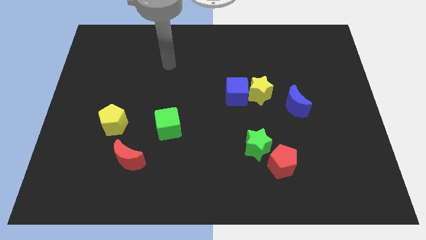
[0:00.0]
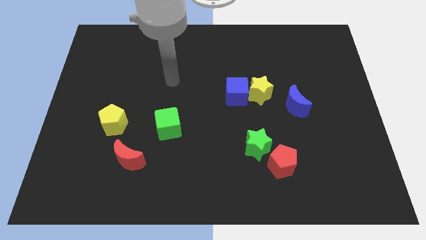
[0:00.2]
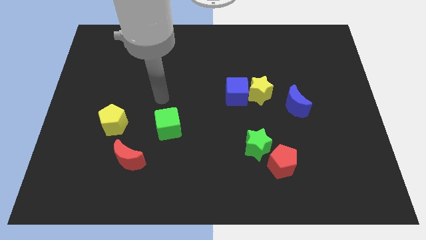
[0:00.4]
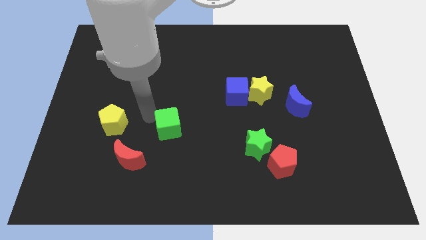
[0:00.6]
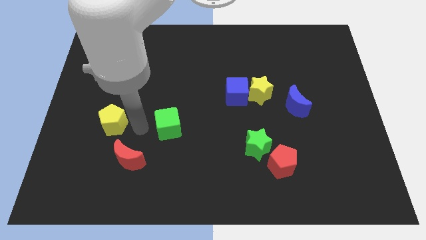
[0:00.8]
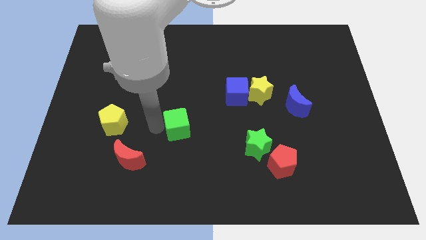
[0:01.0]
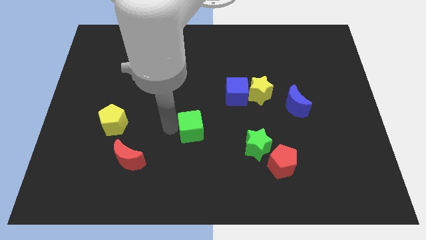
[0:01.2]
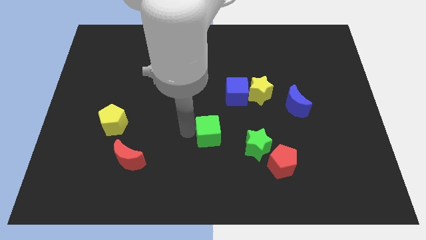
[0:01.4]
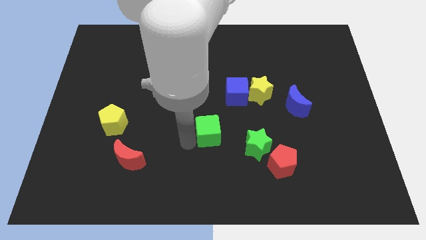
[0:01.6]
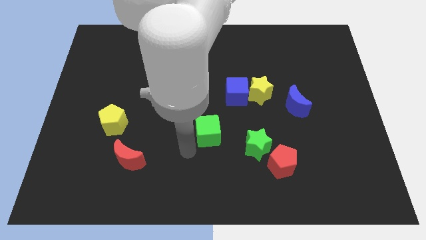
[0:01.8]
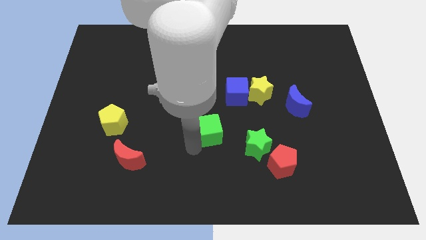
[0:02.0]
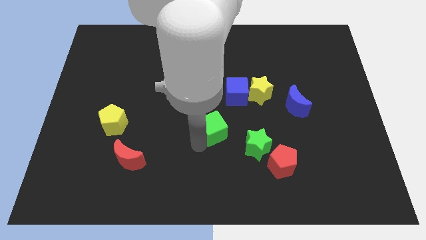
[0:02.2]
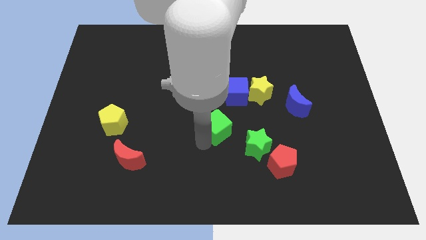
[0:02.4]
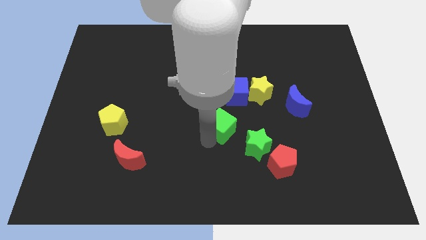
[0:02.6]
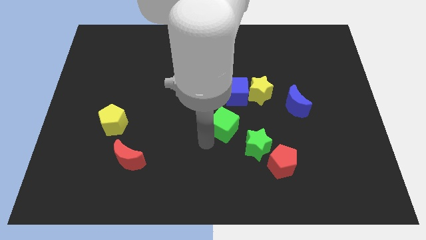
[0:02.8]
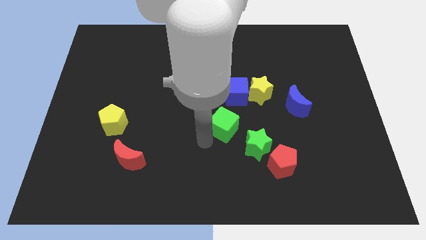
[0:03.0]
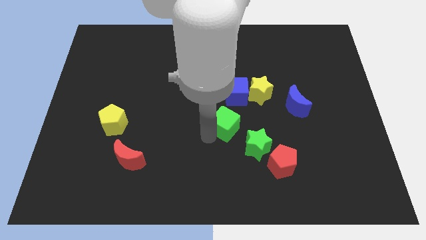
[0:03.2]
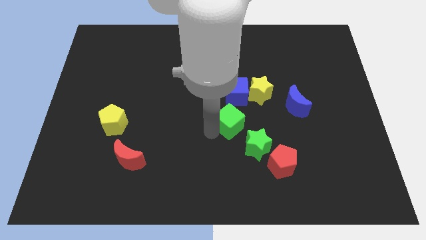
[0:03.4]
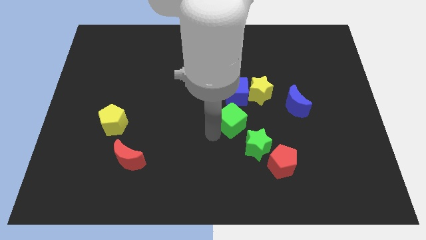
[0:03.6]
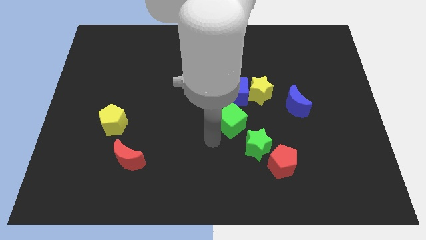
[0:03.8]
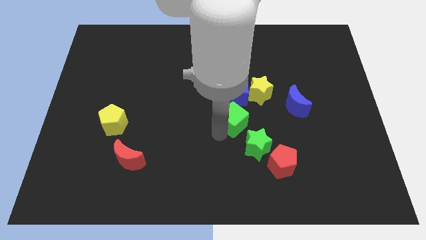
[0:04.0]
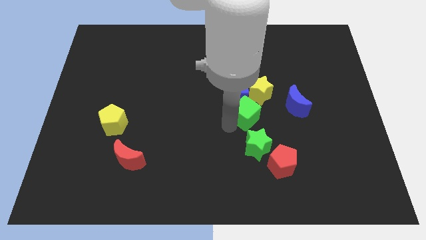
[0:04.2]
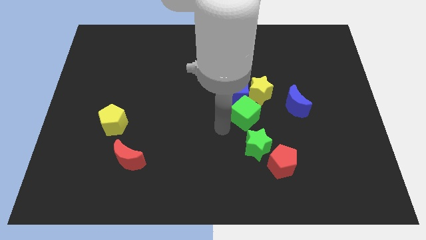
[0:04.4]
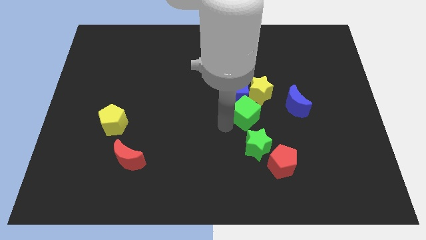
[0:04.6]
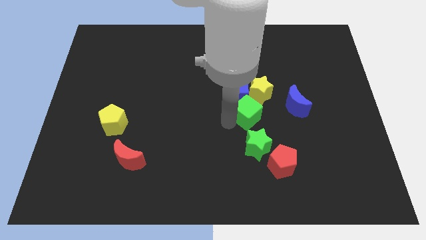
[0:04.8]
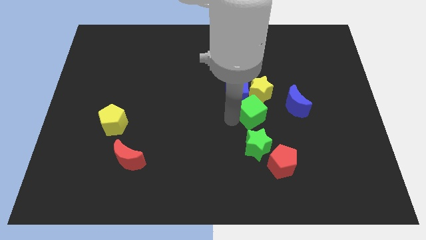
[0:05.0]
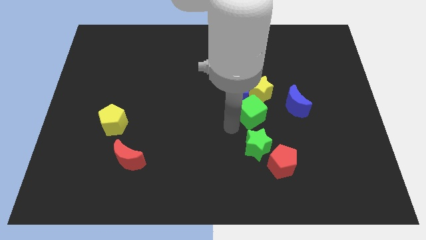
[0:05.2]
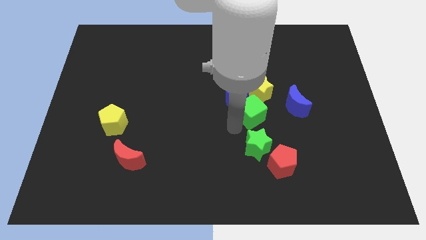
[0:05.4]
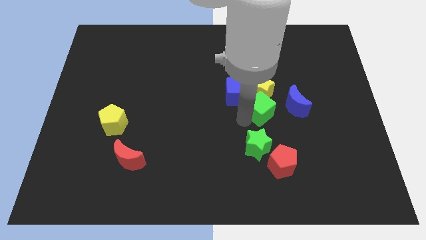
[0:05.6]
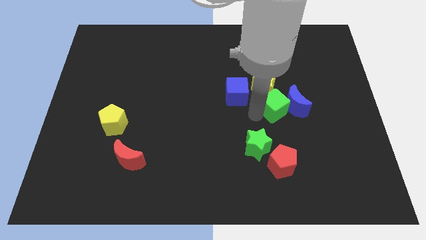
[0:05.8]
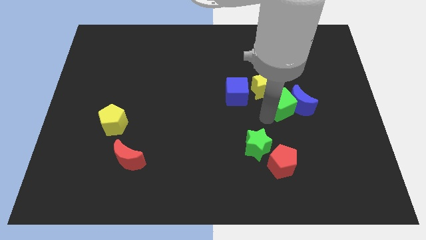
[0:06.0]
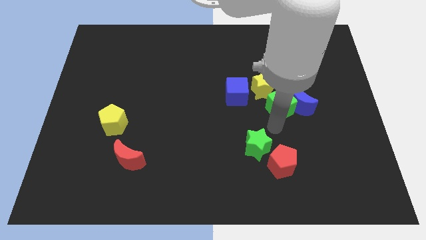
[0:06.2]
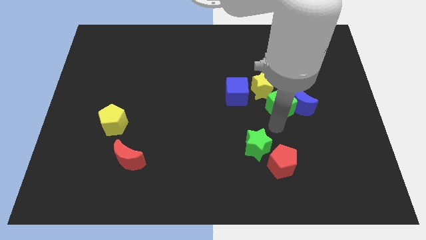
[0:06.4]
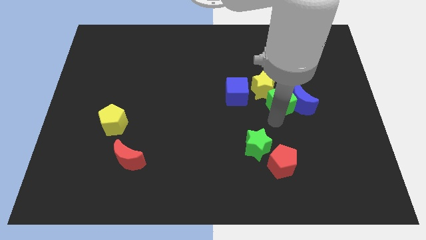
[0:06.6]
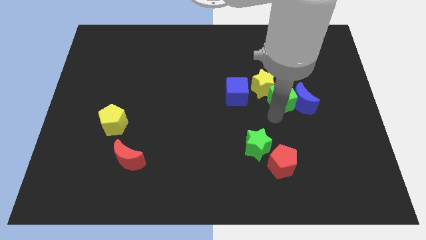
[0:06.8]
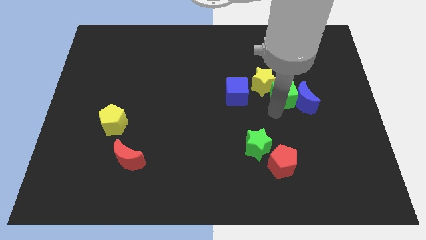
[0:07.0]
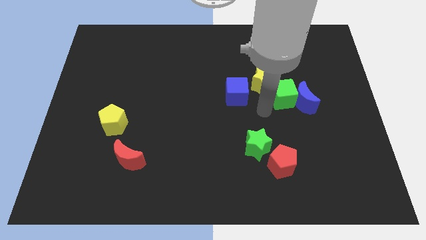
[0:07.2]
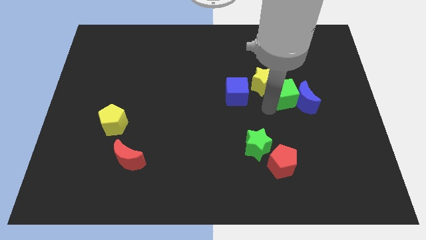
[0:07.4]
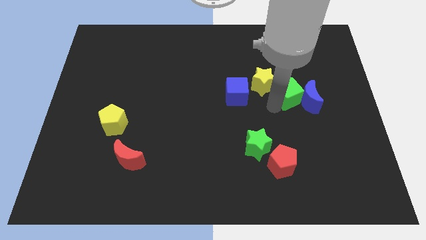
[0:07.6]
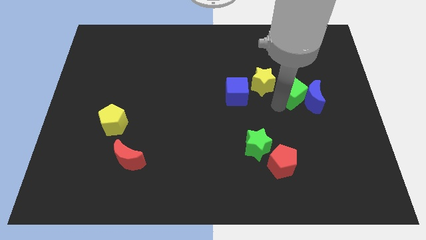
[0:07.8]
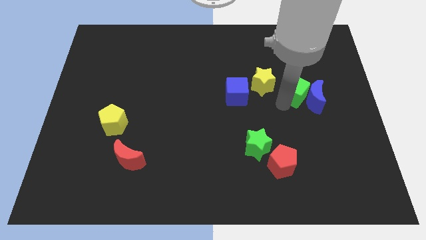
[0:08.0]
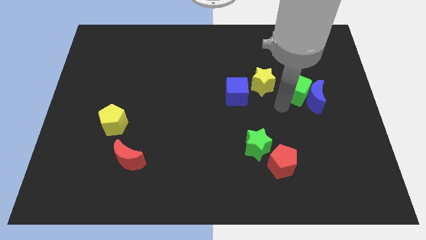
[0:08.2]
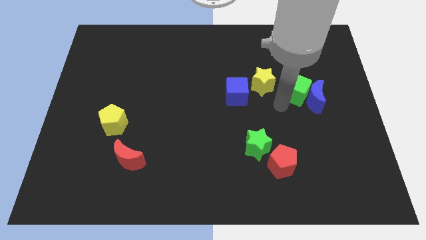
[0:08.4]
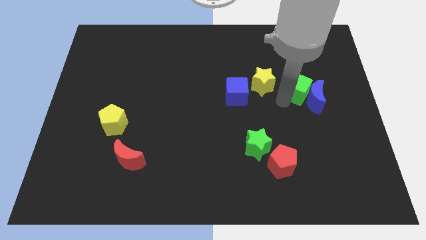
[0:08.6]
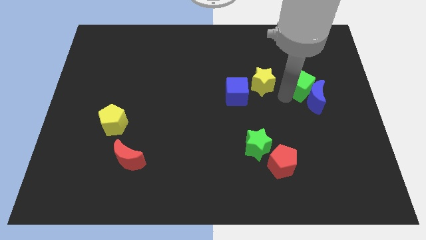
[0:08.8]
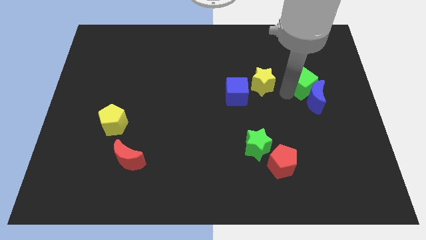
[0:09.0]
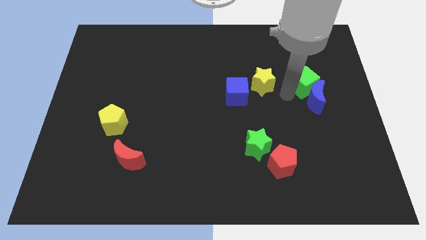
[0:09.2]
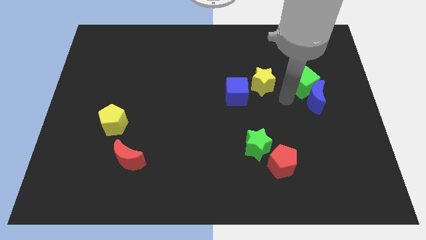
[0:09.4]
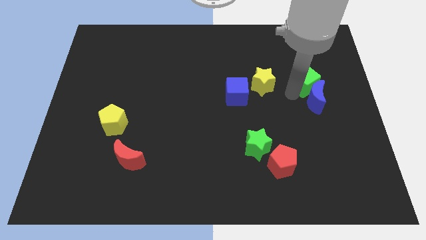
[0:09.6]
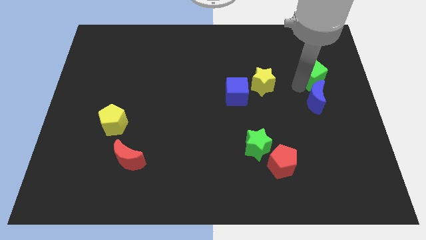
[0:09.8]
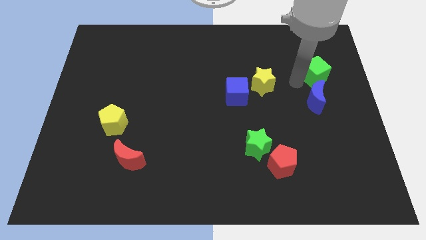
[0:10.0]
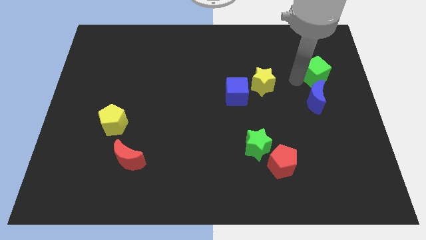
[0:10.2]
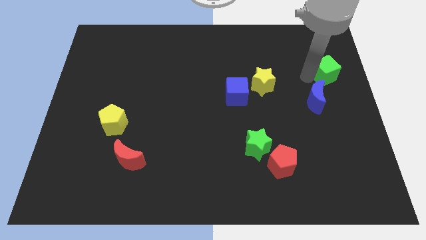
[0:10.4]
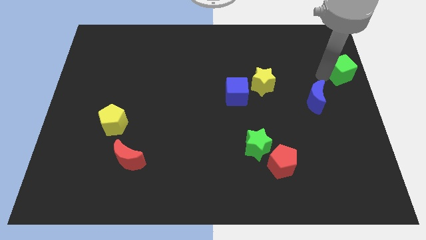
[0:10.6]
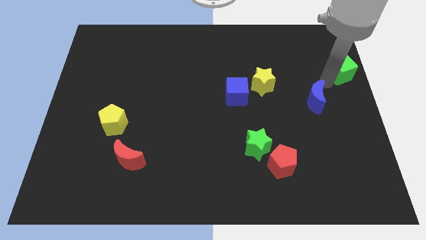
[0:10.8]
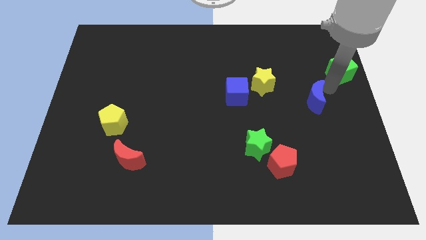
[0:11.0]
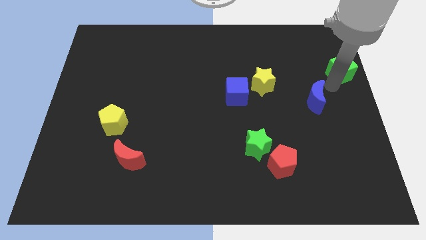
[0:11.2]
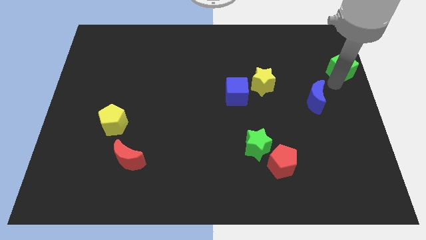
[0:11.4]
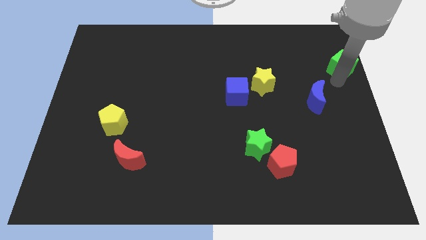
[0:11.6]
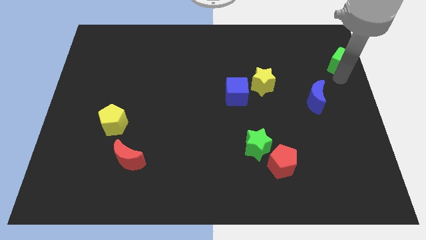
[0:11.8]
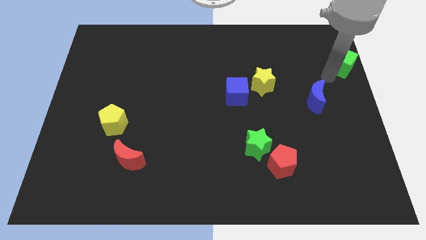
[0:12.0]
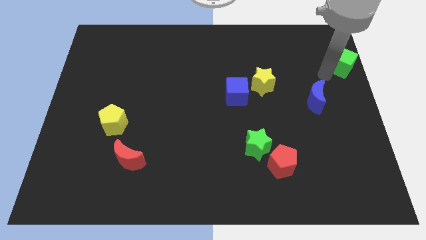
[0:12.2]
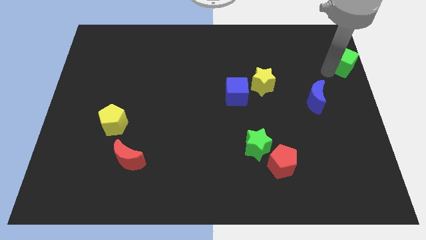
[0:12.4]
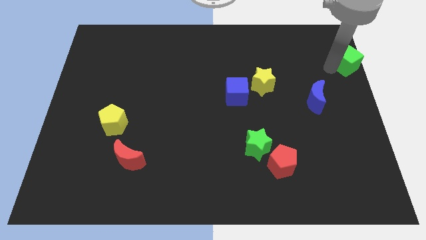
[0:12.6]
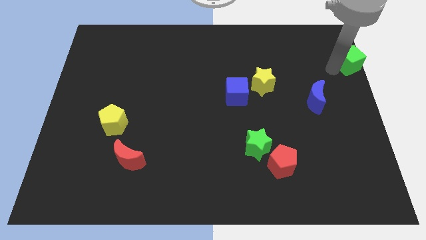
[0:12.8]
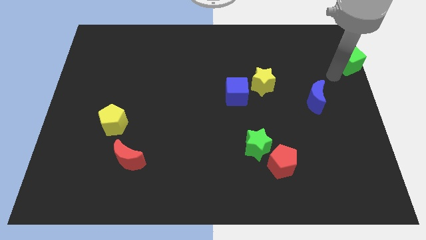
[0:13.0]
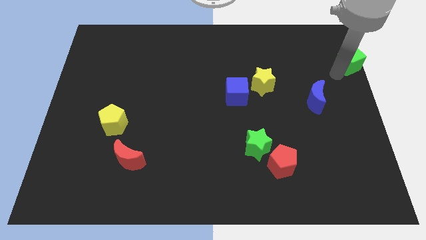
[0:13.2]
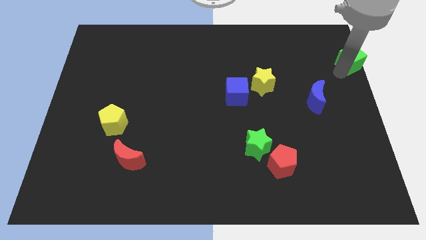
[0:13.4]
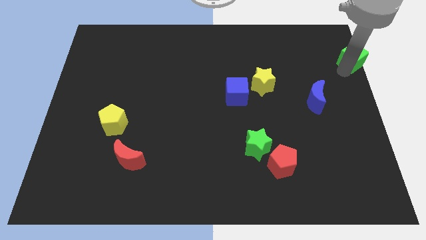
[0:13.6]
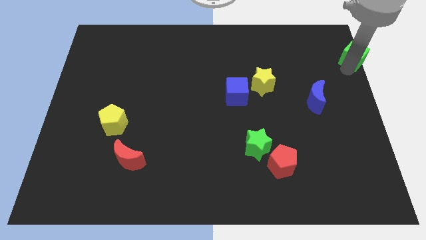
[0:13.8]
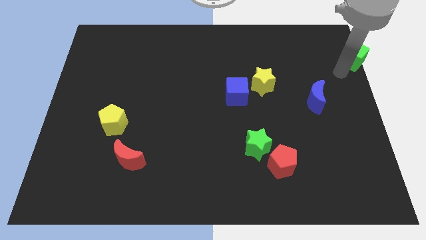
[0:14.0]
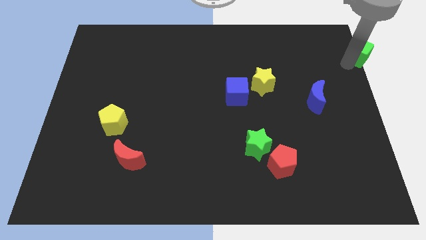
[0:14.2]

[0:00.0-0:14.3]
put the green cube to the top right corner
